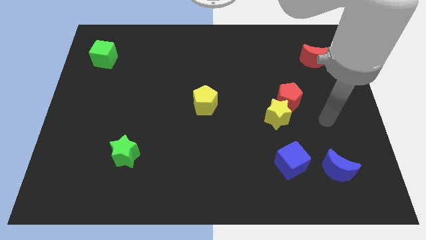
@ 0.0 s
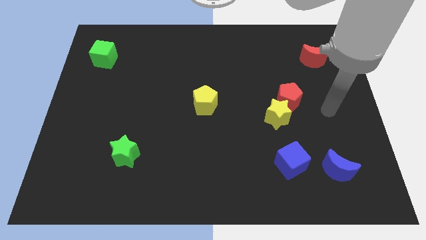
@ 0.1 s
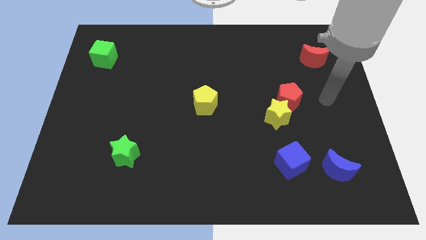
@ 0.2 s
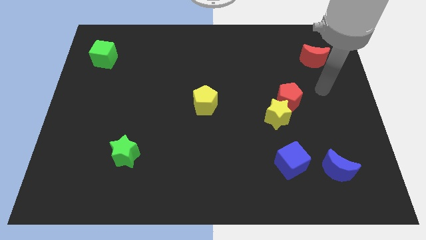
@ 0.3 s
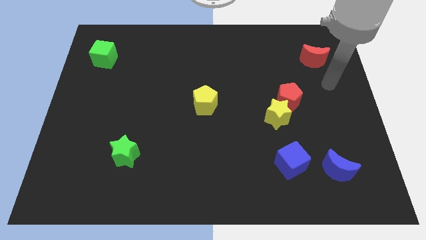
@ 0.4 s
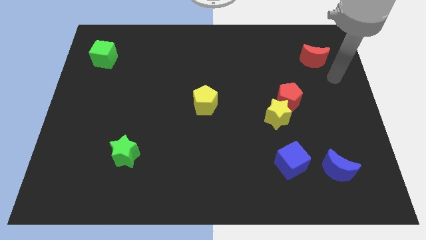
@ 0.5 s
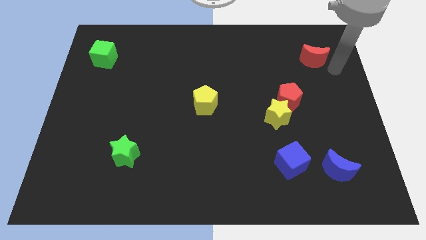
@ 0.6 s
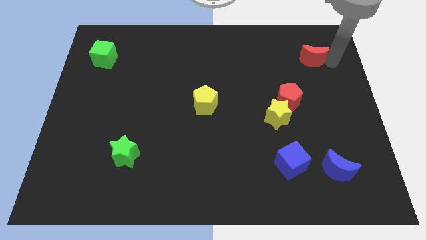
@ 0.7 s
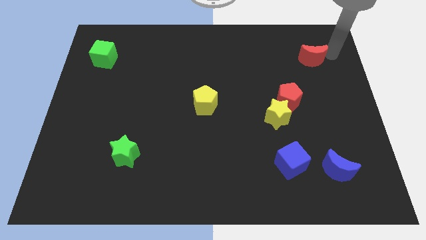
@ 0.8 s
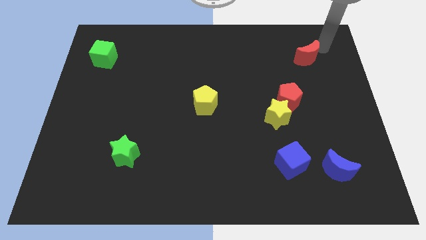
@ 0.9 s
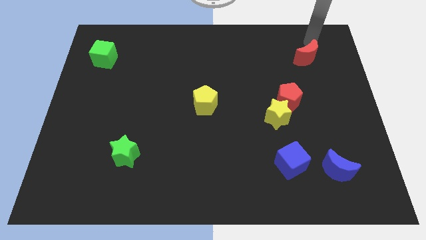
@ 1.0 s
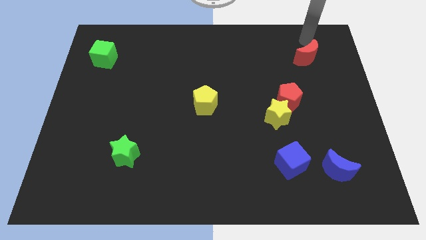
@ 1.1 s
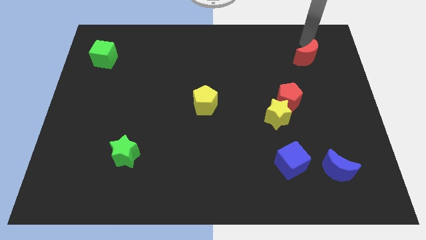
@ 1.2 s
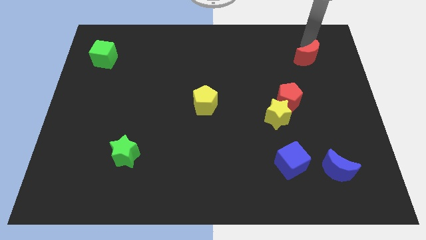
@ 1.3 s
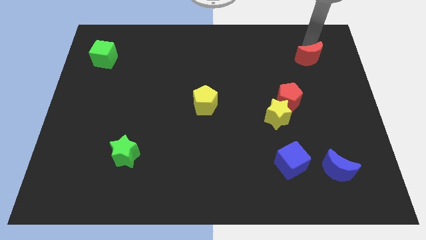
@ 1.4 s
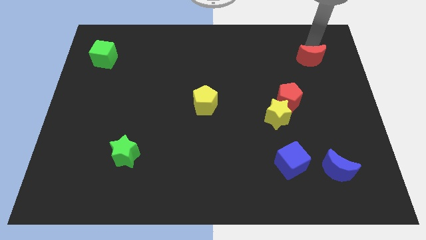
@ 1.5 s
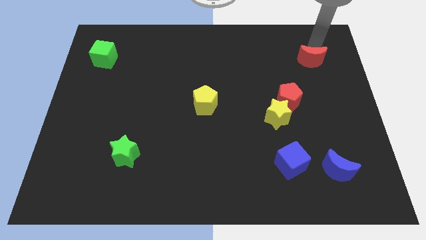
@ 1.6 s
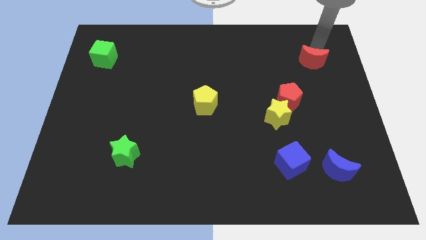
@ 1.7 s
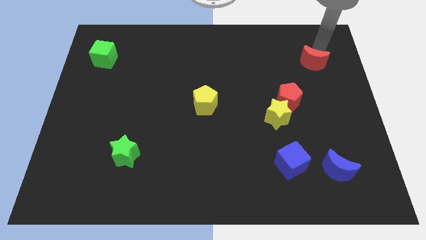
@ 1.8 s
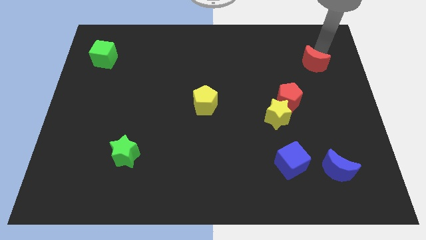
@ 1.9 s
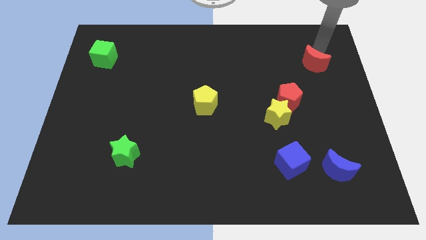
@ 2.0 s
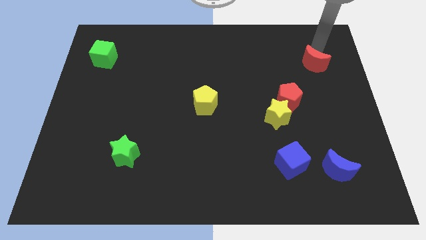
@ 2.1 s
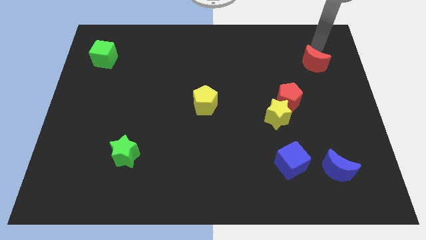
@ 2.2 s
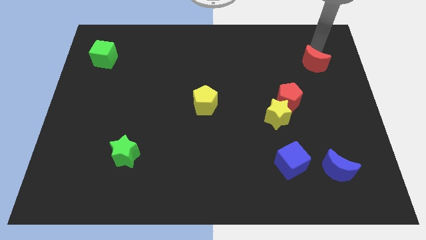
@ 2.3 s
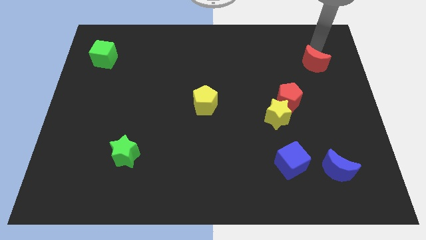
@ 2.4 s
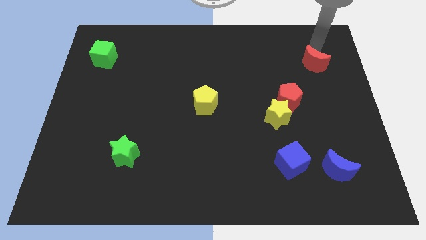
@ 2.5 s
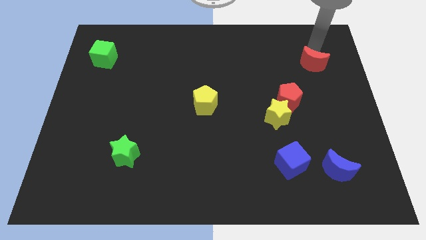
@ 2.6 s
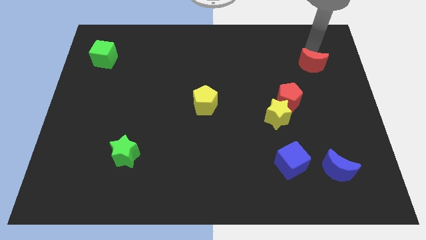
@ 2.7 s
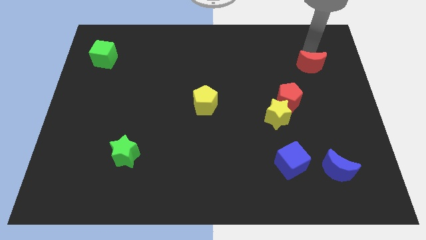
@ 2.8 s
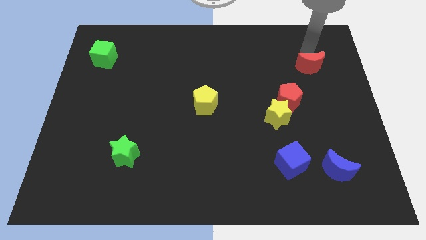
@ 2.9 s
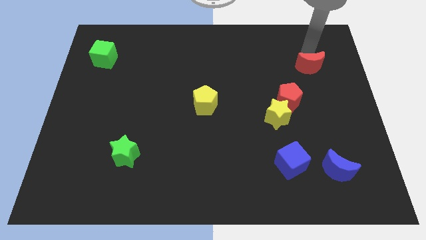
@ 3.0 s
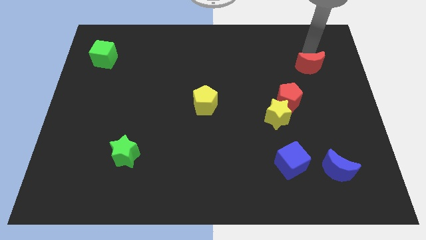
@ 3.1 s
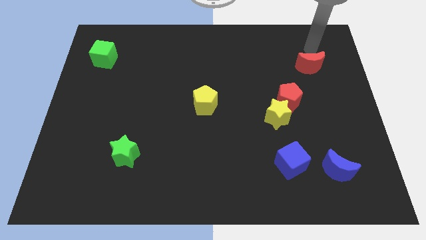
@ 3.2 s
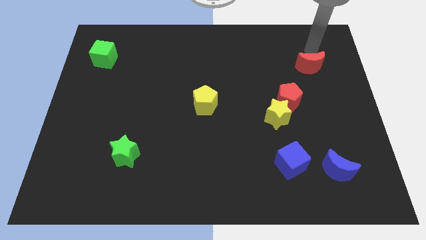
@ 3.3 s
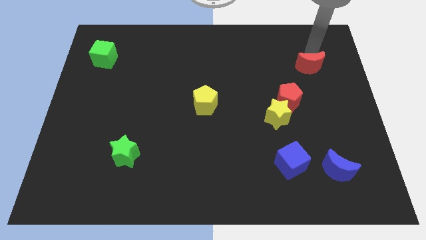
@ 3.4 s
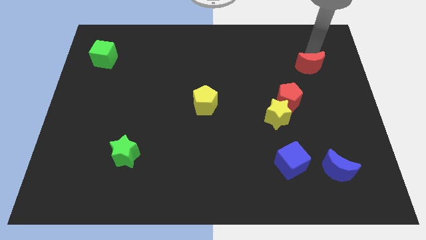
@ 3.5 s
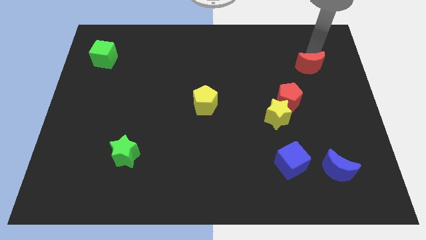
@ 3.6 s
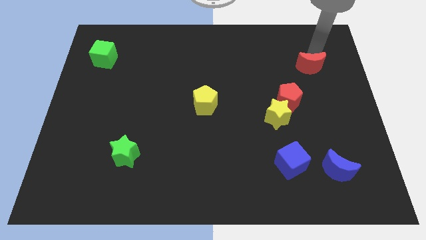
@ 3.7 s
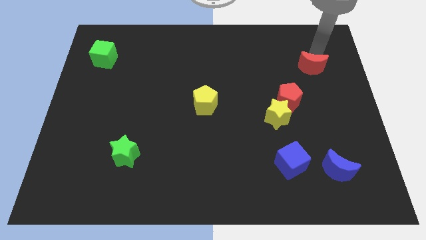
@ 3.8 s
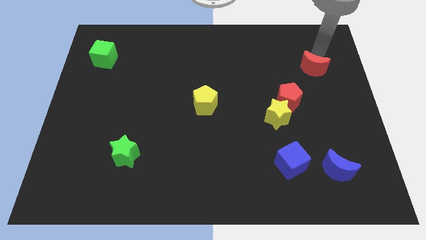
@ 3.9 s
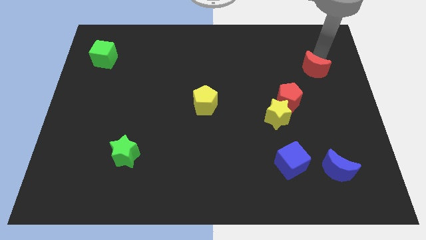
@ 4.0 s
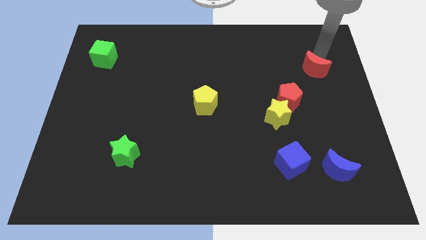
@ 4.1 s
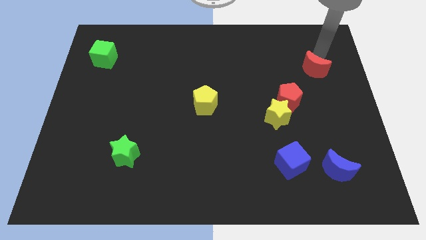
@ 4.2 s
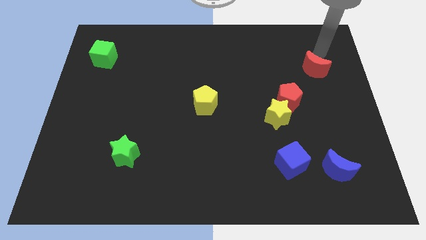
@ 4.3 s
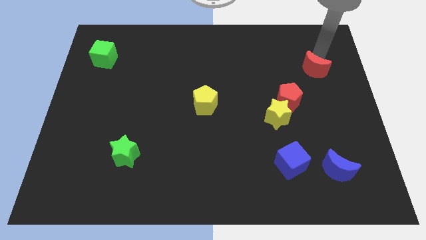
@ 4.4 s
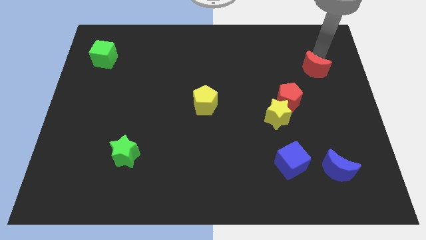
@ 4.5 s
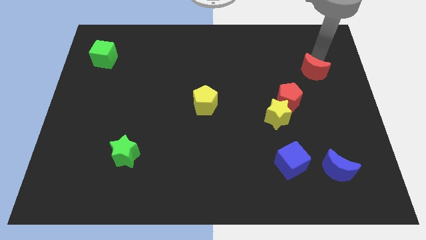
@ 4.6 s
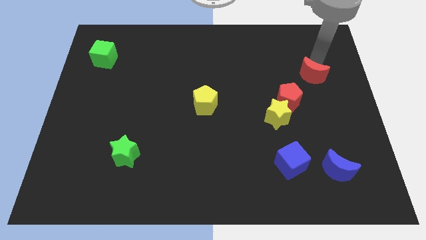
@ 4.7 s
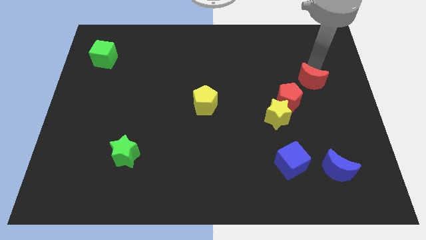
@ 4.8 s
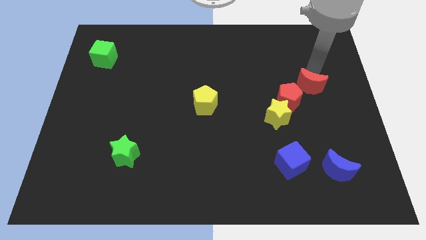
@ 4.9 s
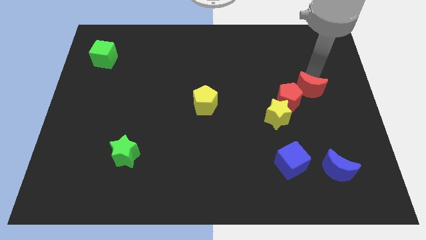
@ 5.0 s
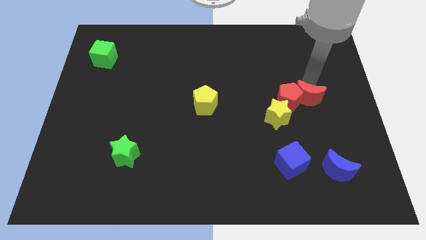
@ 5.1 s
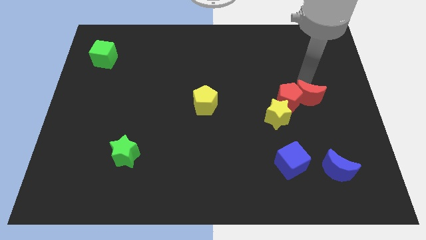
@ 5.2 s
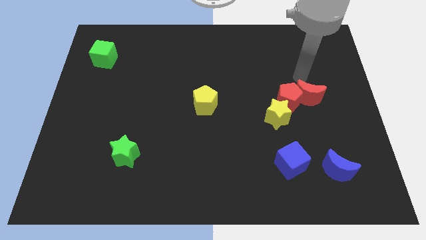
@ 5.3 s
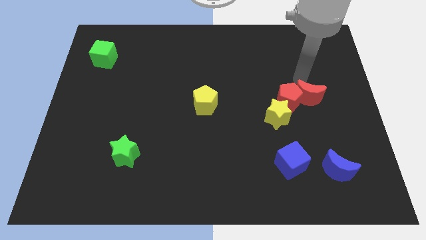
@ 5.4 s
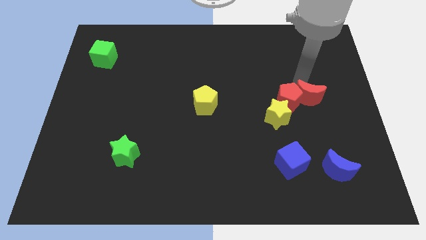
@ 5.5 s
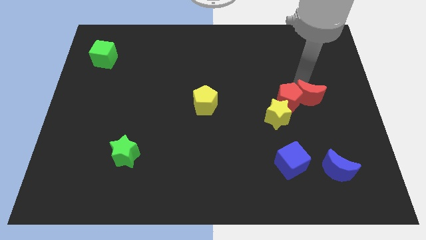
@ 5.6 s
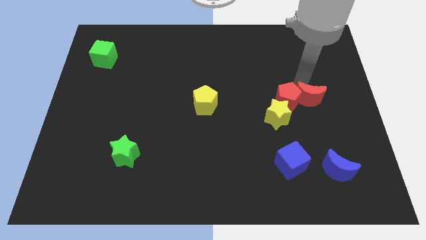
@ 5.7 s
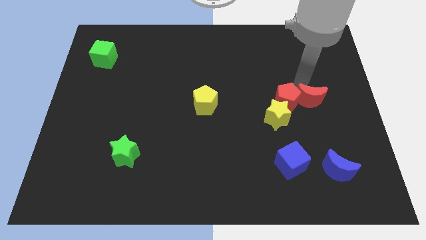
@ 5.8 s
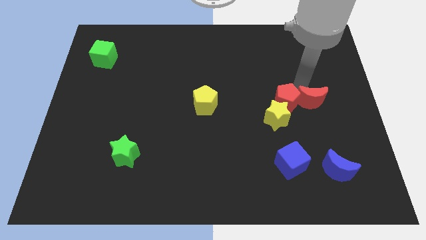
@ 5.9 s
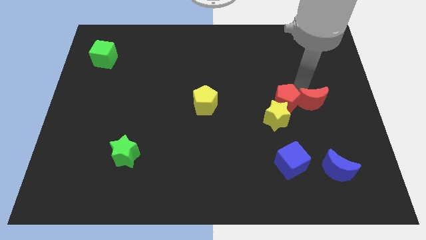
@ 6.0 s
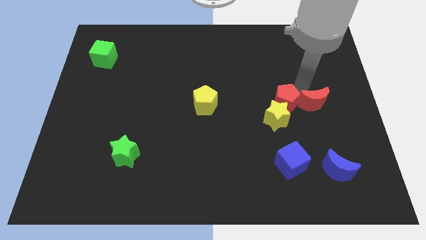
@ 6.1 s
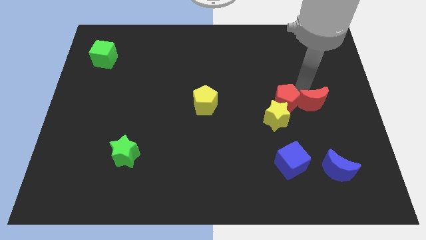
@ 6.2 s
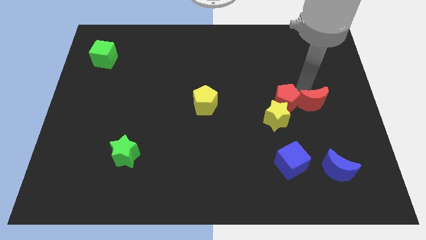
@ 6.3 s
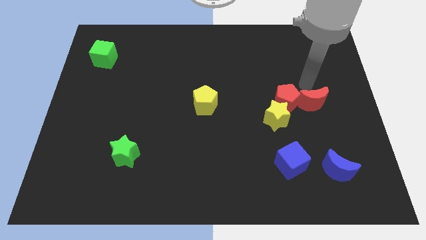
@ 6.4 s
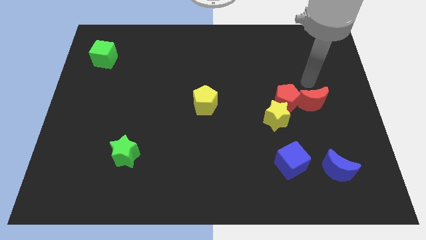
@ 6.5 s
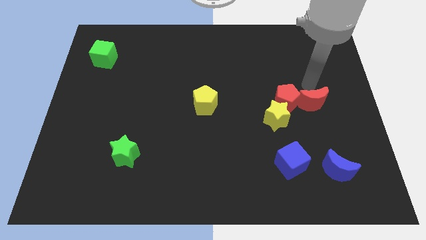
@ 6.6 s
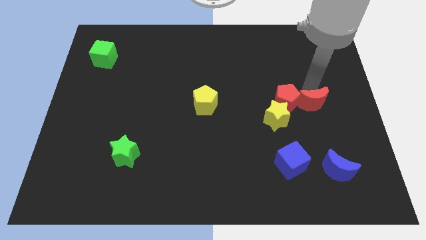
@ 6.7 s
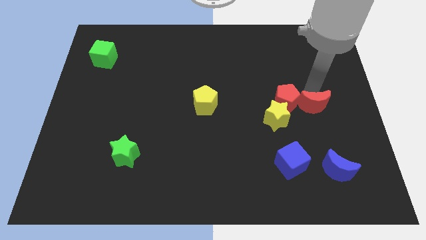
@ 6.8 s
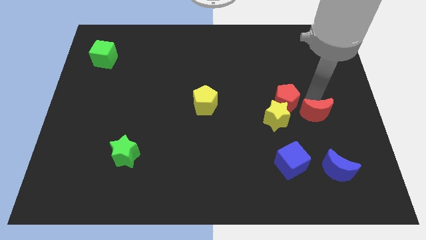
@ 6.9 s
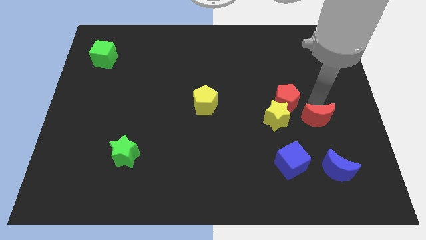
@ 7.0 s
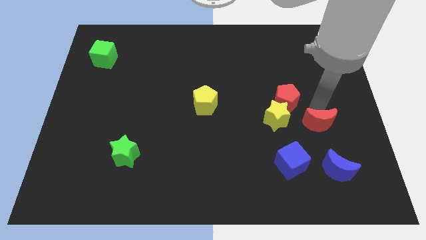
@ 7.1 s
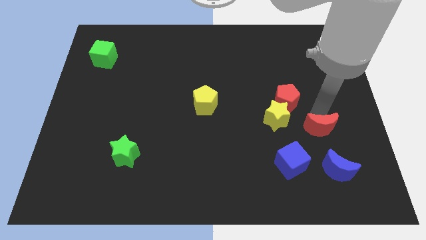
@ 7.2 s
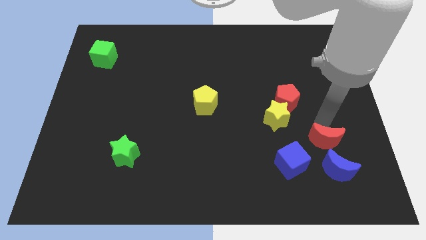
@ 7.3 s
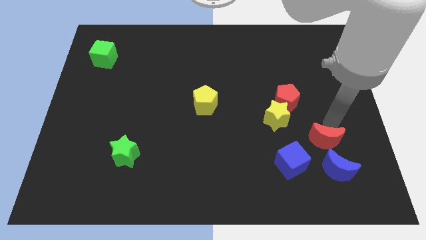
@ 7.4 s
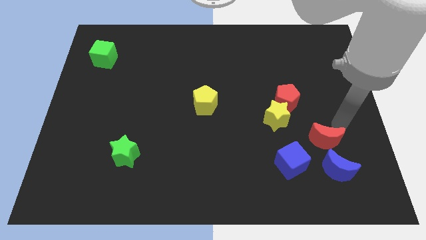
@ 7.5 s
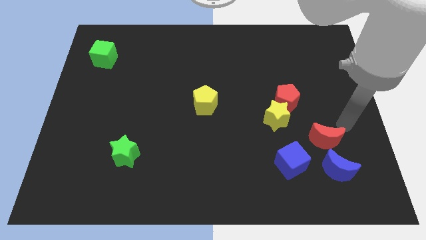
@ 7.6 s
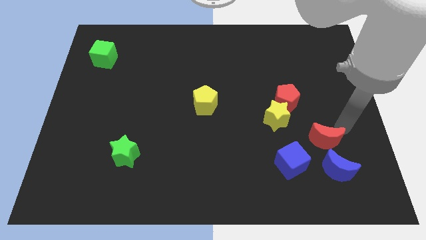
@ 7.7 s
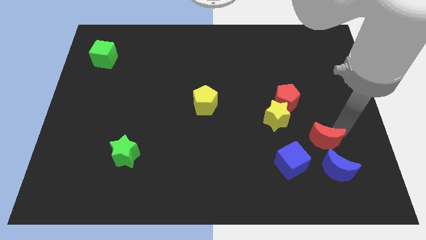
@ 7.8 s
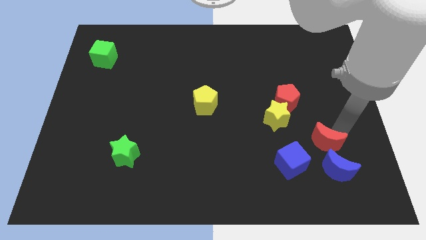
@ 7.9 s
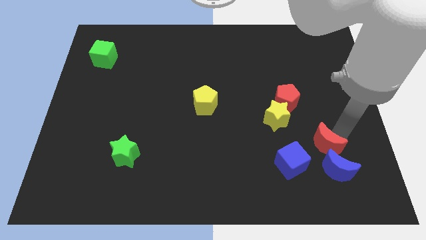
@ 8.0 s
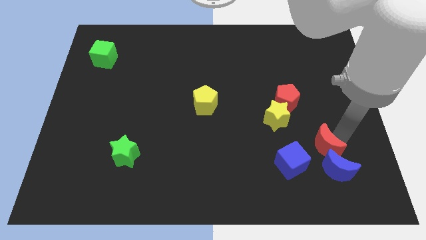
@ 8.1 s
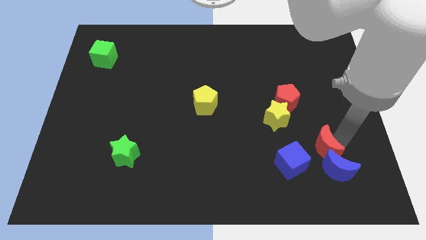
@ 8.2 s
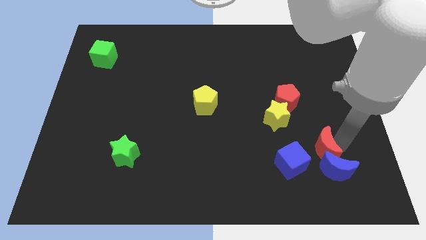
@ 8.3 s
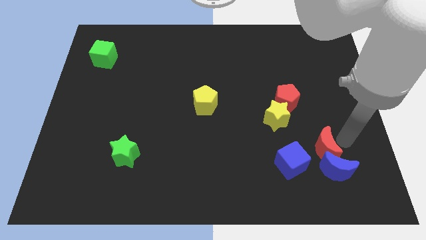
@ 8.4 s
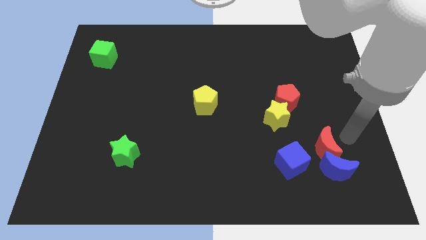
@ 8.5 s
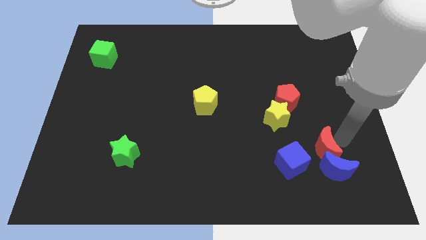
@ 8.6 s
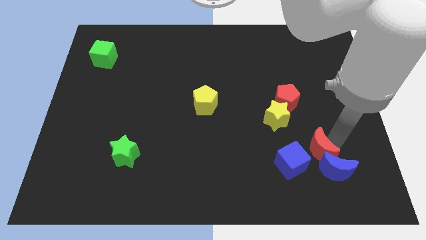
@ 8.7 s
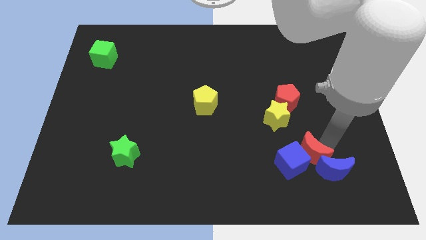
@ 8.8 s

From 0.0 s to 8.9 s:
put the red moon to the blue cube

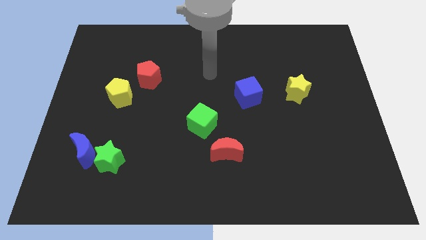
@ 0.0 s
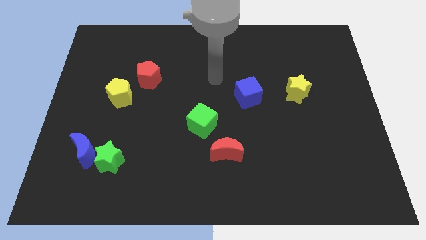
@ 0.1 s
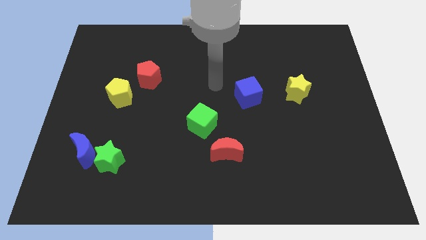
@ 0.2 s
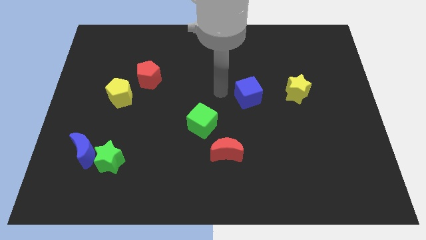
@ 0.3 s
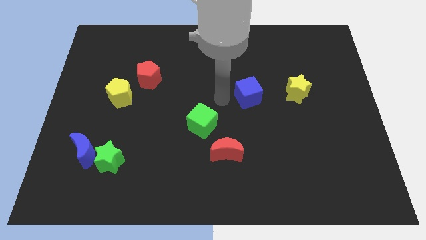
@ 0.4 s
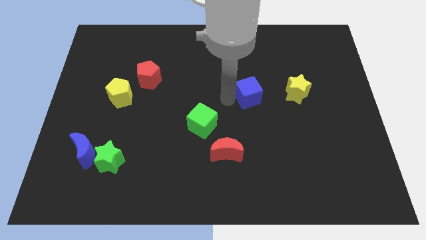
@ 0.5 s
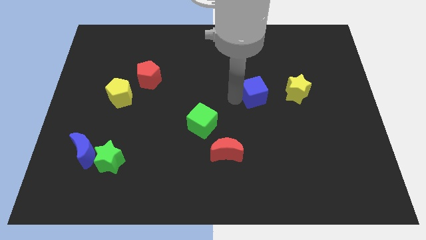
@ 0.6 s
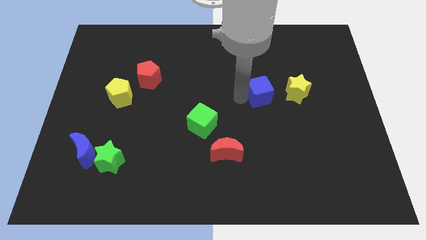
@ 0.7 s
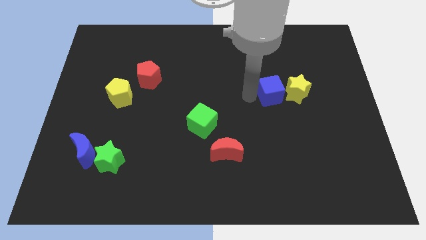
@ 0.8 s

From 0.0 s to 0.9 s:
move the blue cube to the yellow star
